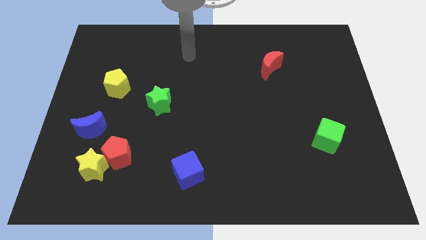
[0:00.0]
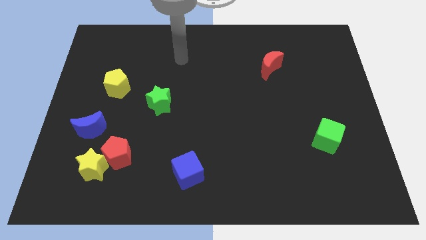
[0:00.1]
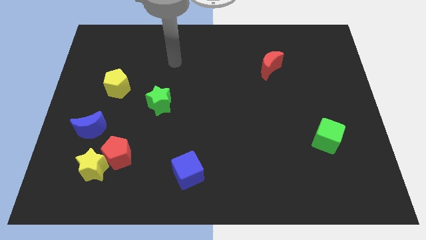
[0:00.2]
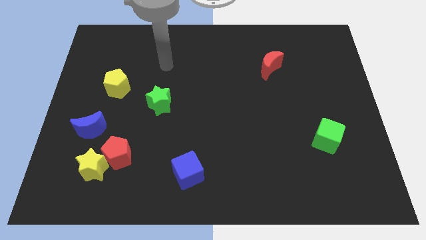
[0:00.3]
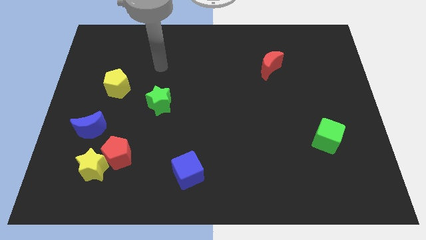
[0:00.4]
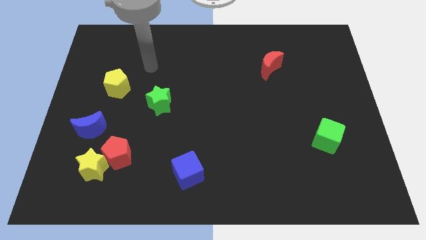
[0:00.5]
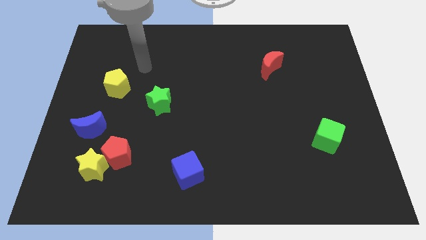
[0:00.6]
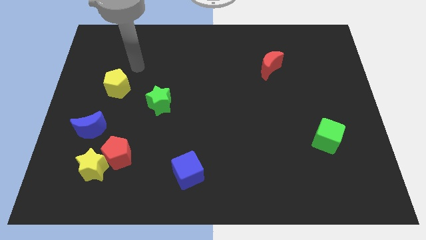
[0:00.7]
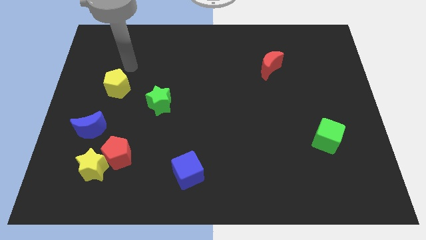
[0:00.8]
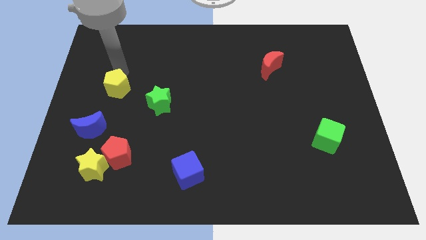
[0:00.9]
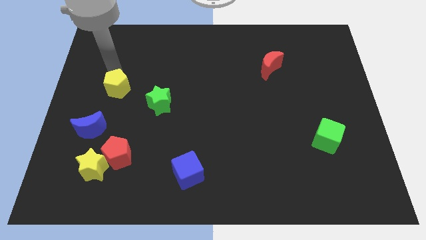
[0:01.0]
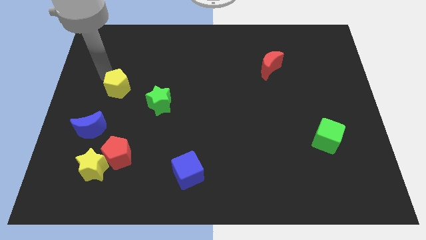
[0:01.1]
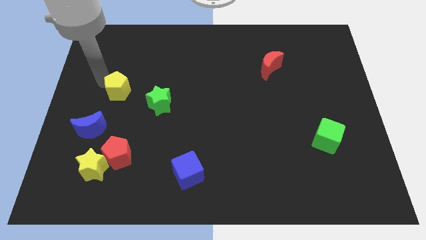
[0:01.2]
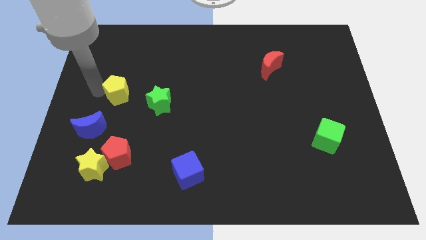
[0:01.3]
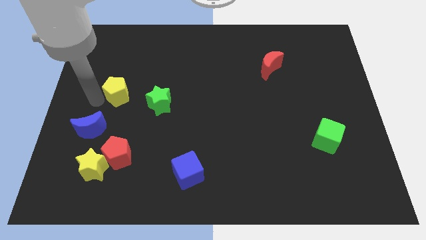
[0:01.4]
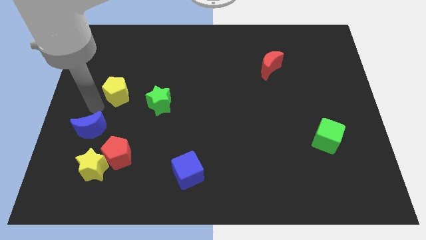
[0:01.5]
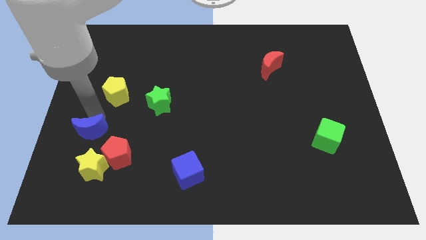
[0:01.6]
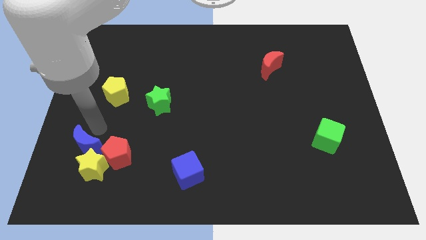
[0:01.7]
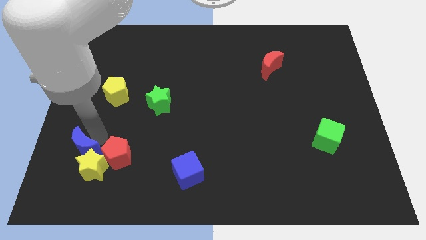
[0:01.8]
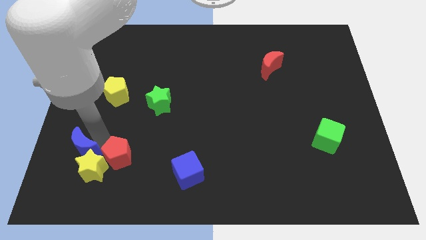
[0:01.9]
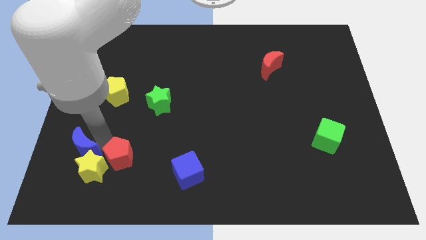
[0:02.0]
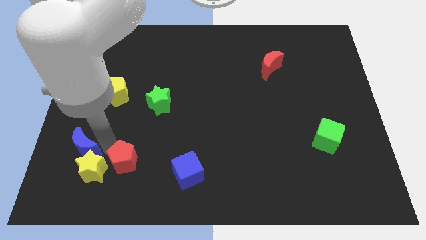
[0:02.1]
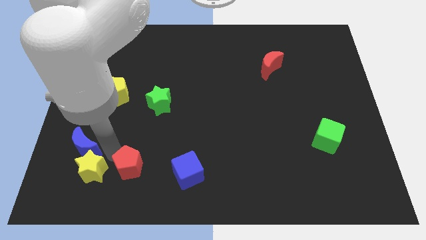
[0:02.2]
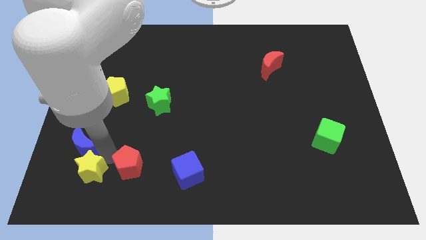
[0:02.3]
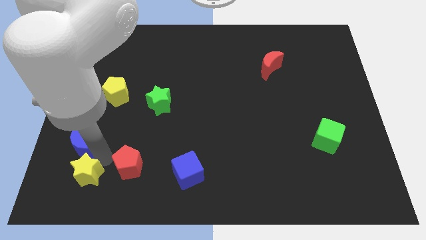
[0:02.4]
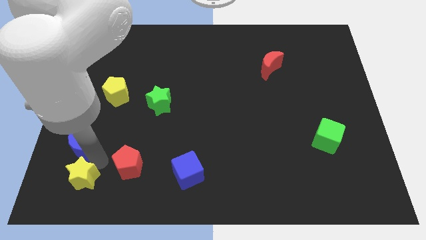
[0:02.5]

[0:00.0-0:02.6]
move the red pentagon away from the yellow star and blue moon

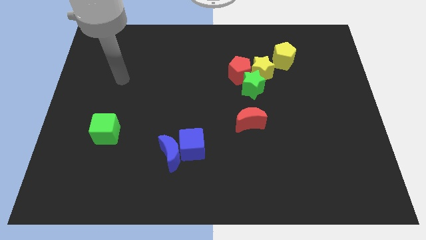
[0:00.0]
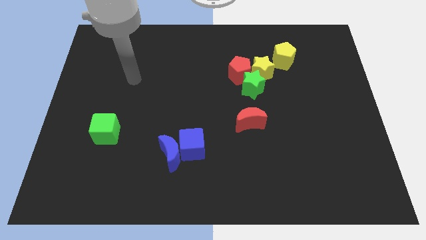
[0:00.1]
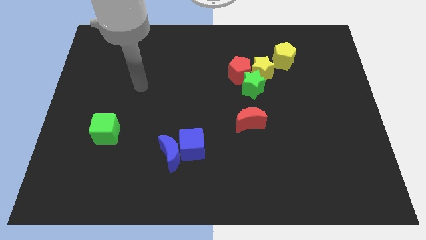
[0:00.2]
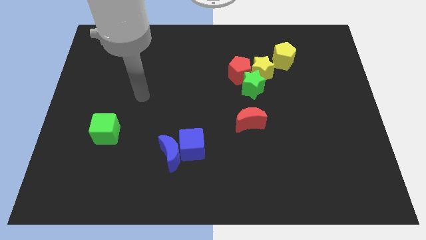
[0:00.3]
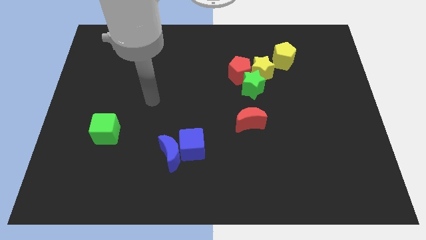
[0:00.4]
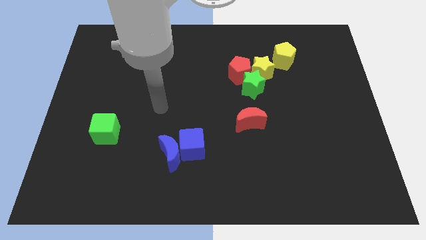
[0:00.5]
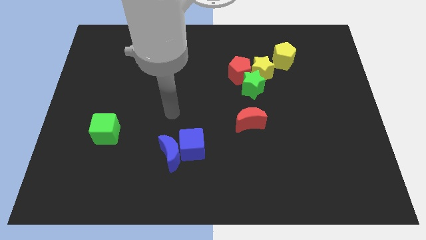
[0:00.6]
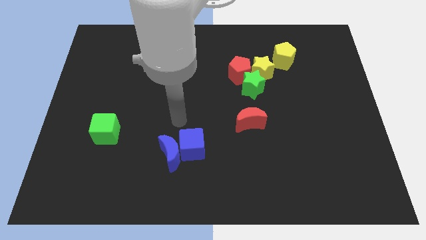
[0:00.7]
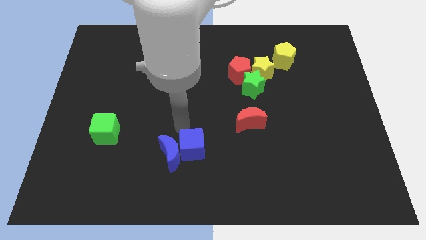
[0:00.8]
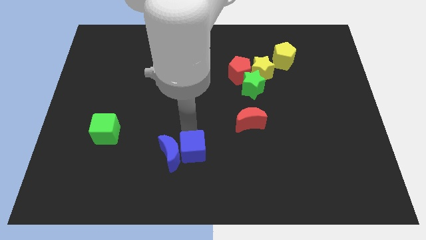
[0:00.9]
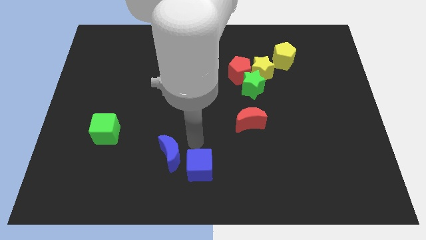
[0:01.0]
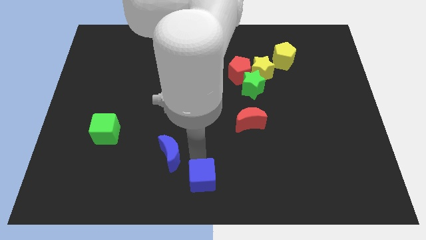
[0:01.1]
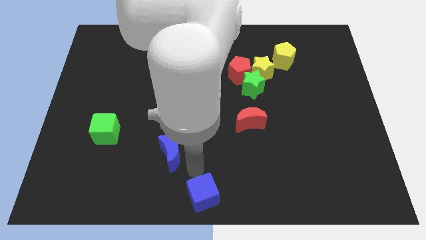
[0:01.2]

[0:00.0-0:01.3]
separate the blue moon from the blue cube

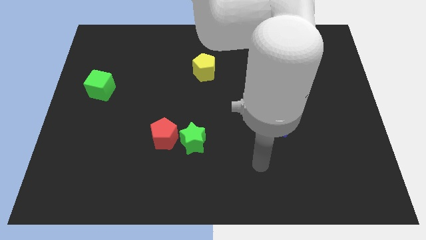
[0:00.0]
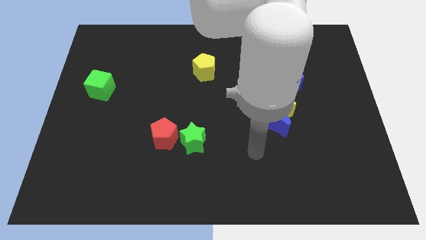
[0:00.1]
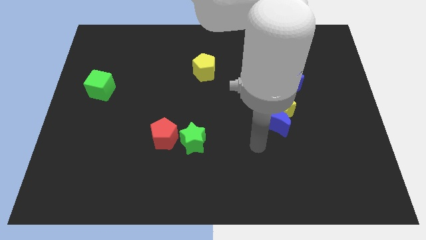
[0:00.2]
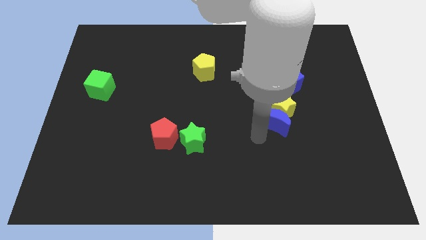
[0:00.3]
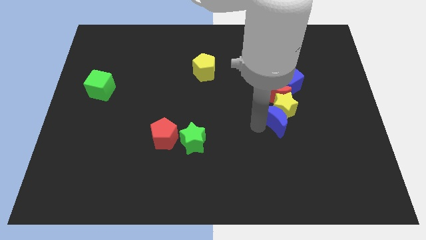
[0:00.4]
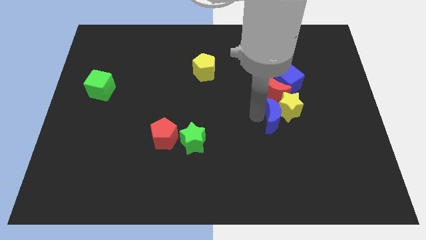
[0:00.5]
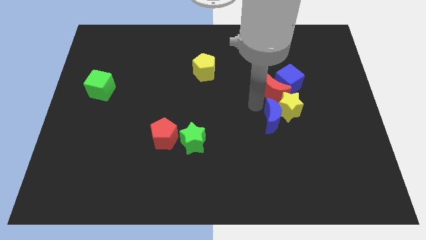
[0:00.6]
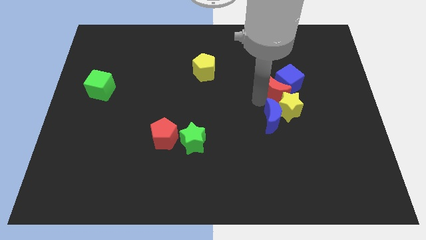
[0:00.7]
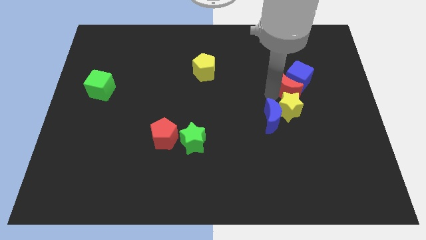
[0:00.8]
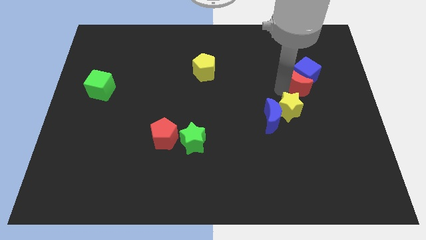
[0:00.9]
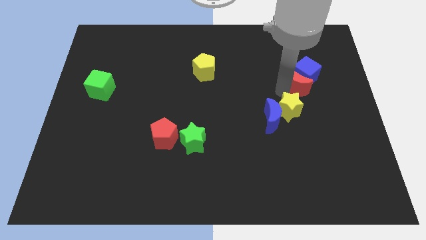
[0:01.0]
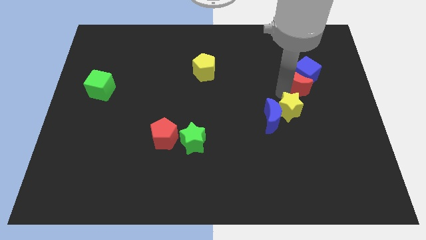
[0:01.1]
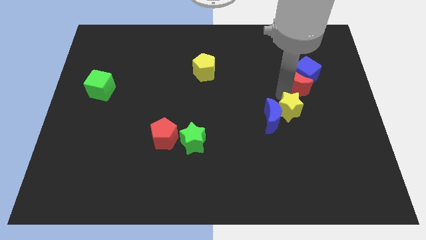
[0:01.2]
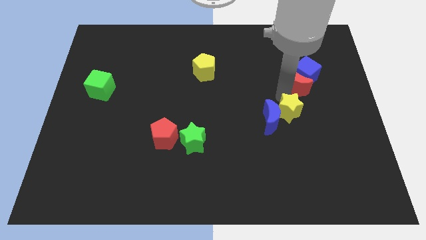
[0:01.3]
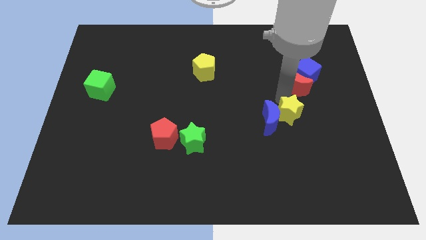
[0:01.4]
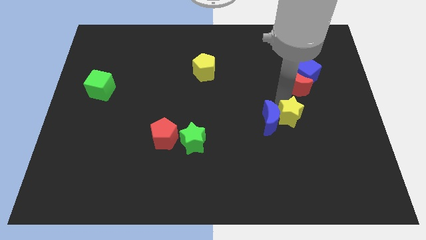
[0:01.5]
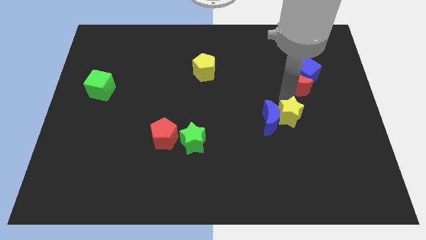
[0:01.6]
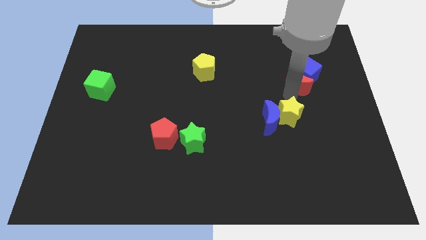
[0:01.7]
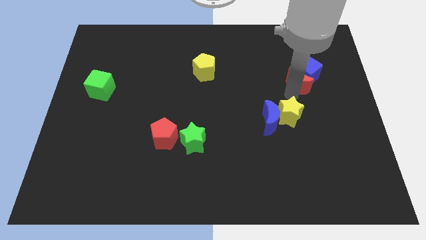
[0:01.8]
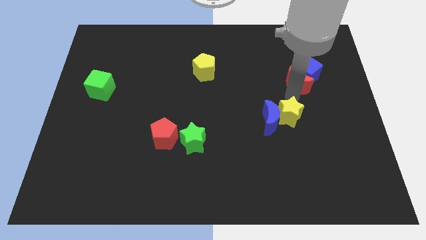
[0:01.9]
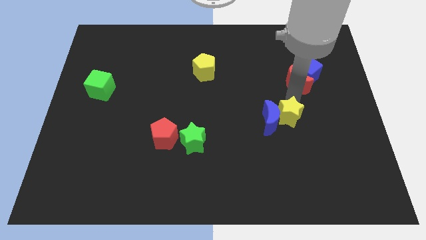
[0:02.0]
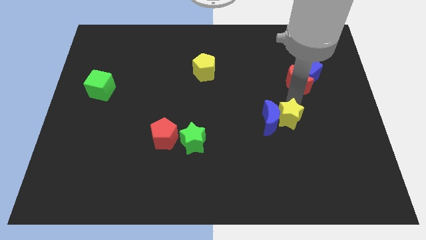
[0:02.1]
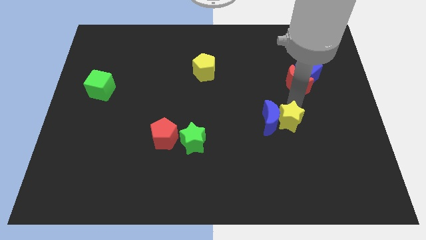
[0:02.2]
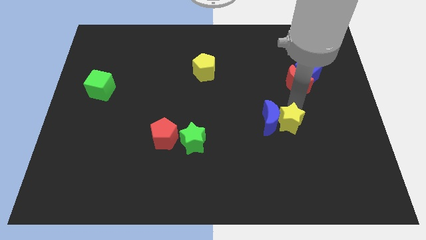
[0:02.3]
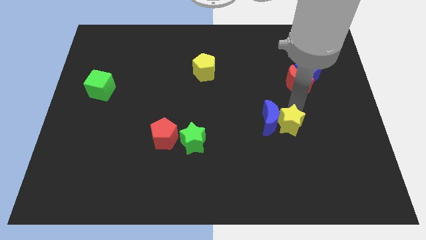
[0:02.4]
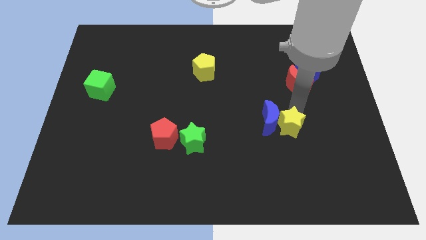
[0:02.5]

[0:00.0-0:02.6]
separate the yellow star from the blue moon, red moon, and blue cube

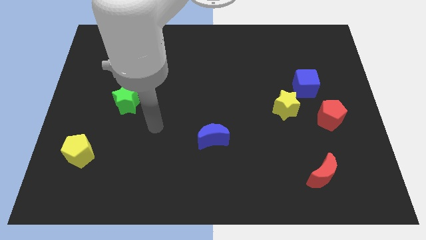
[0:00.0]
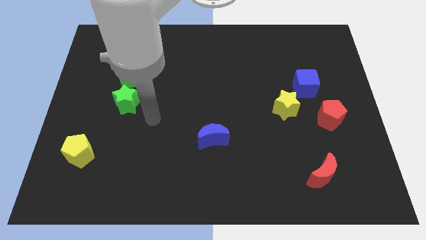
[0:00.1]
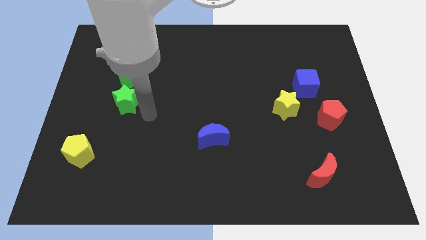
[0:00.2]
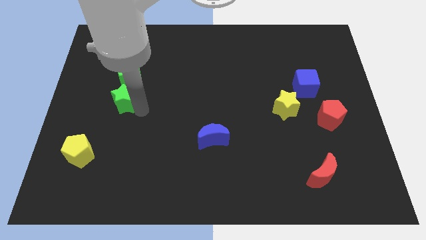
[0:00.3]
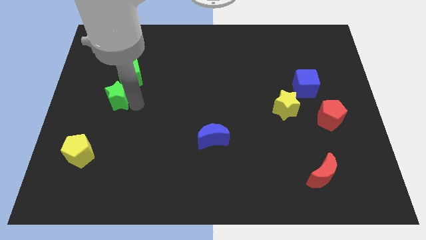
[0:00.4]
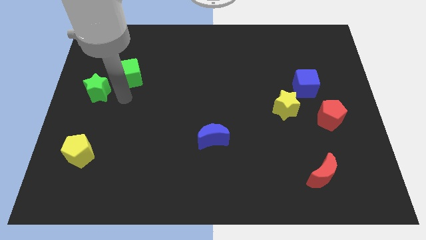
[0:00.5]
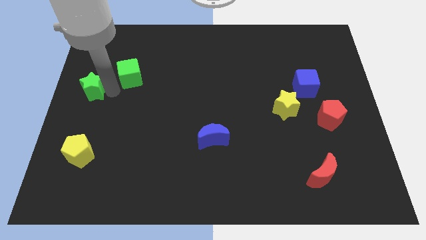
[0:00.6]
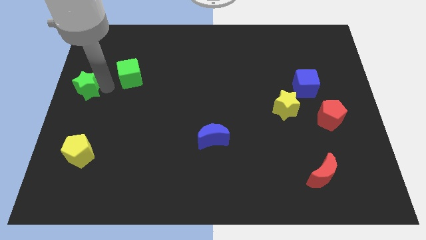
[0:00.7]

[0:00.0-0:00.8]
move the green cube away from the green star

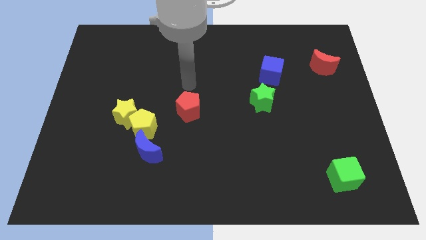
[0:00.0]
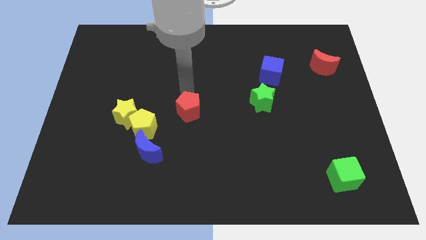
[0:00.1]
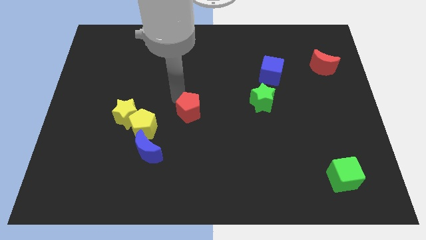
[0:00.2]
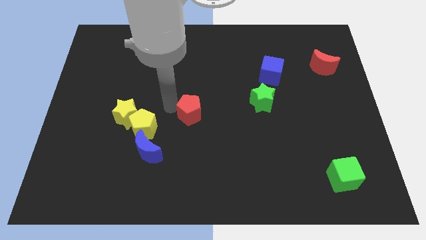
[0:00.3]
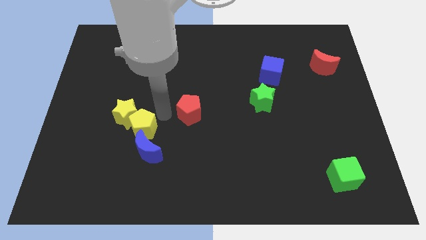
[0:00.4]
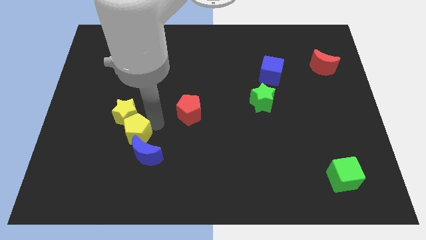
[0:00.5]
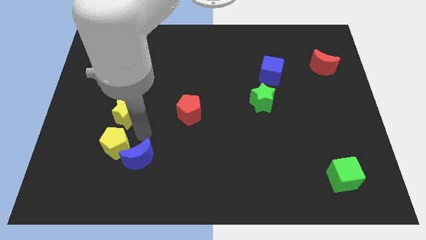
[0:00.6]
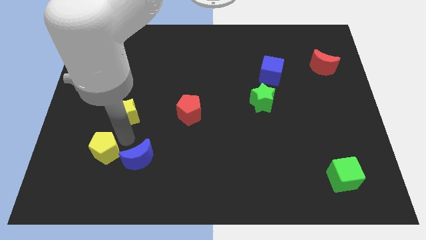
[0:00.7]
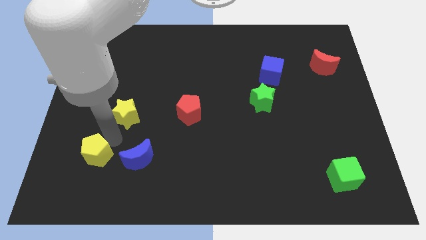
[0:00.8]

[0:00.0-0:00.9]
separate the yellow star from the yellow pentagon

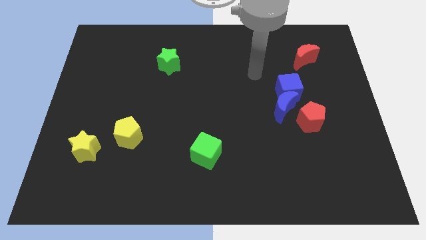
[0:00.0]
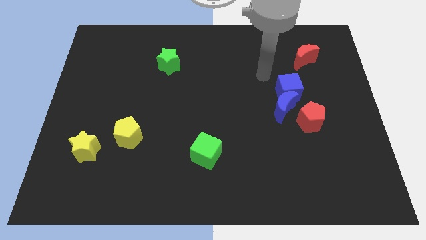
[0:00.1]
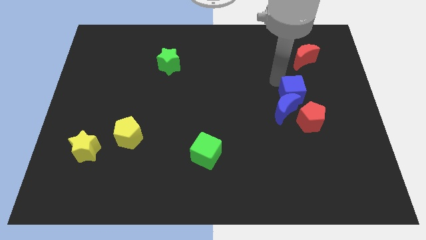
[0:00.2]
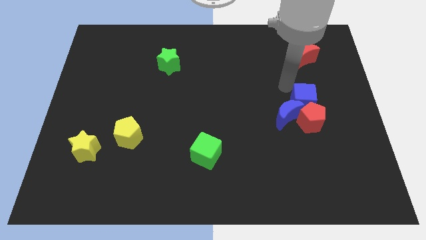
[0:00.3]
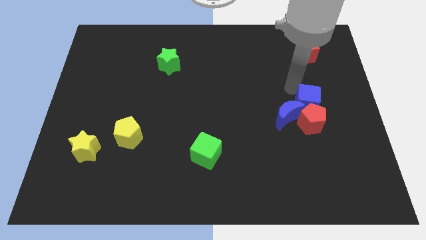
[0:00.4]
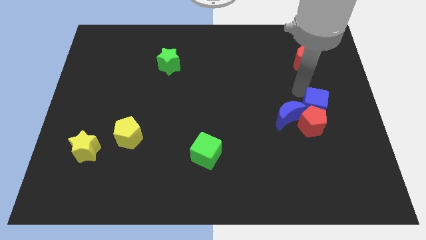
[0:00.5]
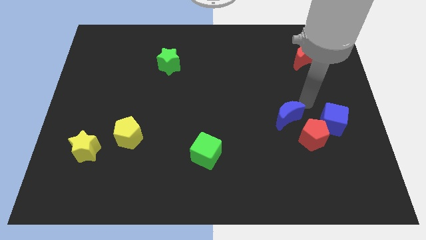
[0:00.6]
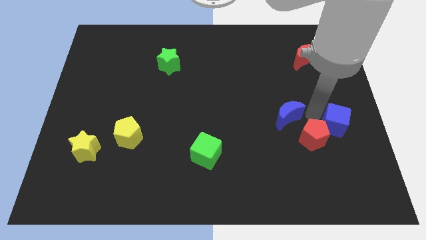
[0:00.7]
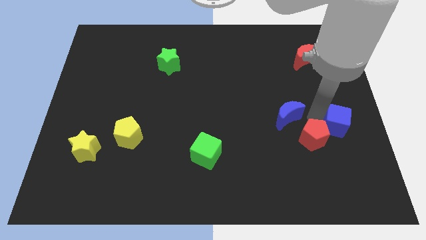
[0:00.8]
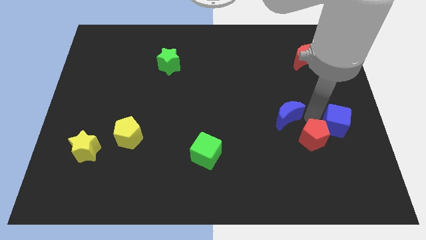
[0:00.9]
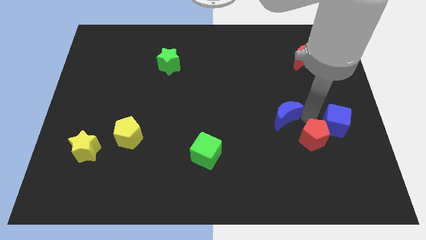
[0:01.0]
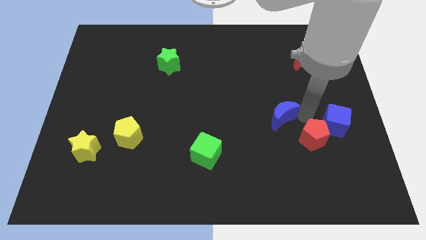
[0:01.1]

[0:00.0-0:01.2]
pull the blue moon apart from the blue cube and red pentagon
